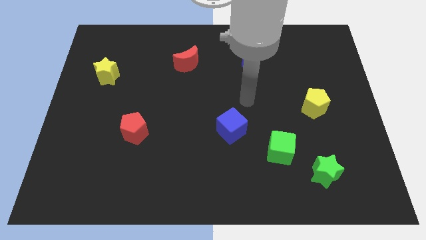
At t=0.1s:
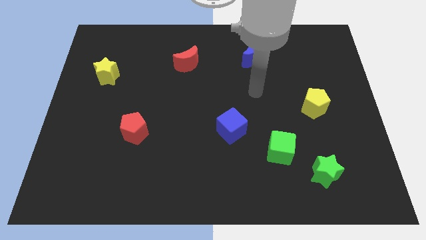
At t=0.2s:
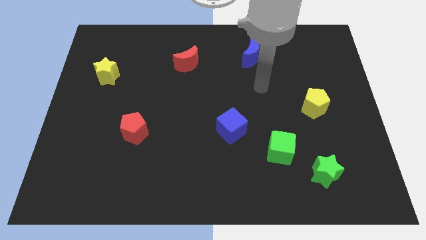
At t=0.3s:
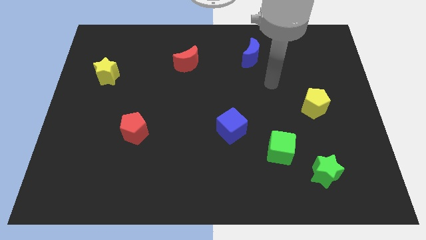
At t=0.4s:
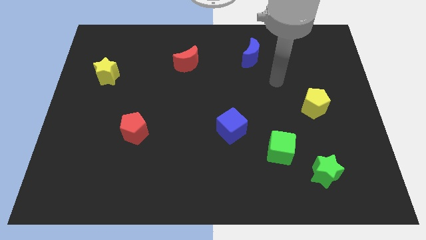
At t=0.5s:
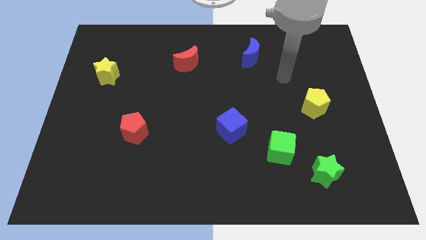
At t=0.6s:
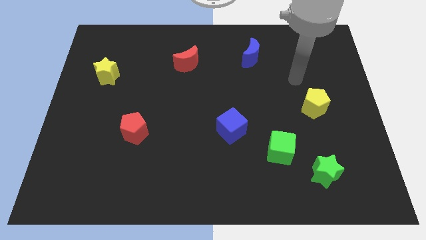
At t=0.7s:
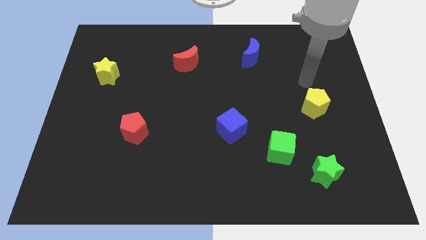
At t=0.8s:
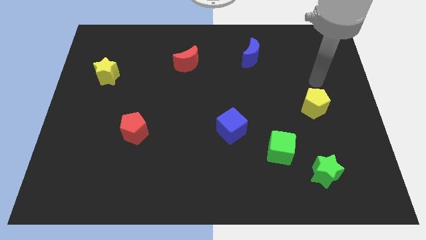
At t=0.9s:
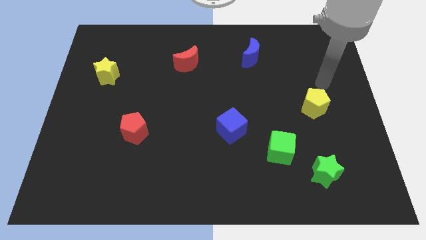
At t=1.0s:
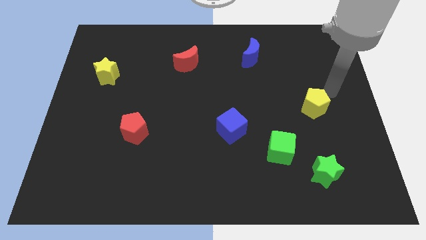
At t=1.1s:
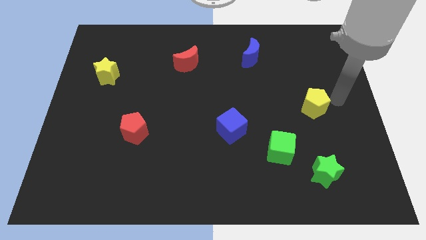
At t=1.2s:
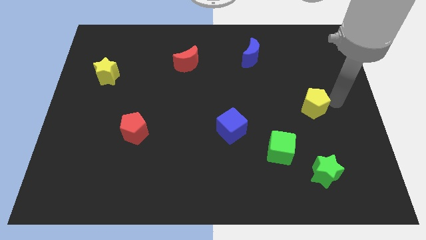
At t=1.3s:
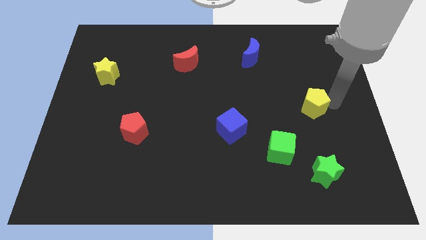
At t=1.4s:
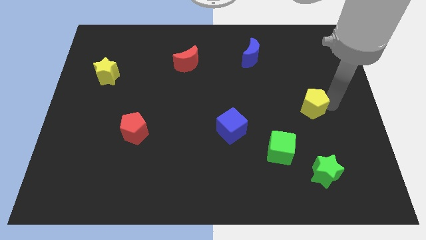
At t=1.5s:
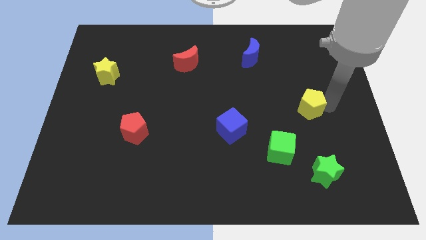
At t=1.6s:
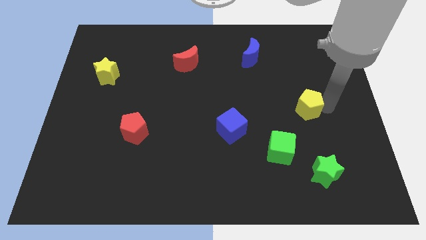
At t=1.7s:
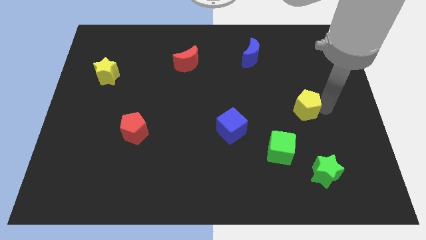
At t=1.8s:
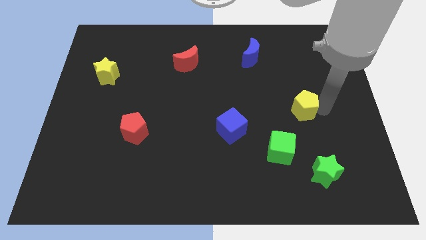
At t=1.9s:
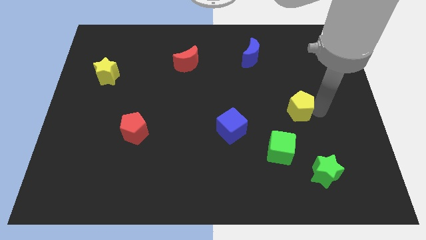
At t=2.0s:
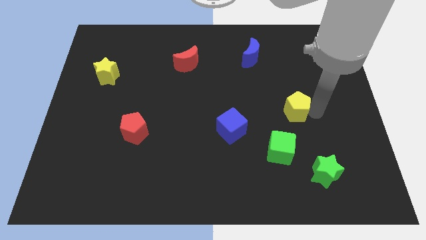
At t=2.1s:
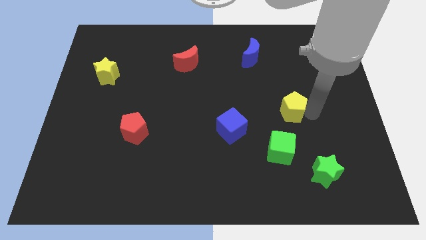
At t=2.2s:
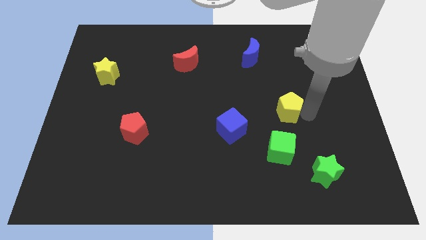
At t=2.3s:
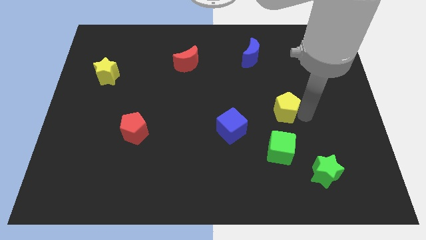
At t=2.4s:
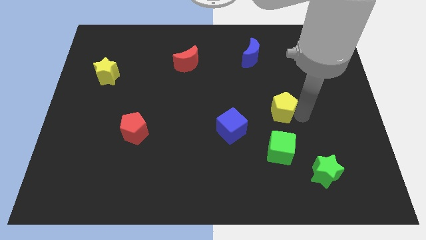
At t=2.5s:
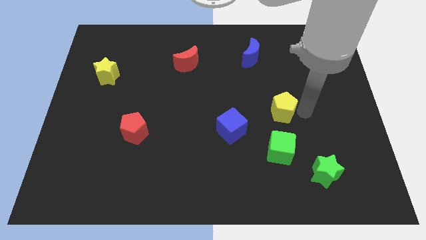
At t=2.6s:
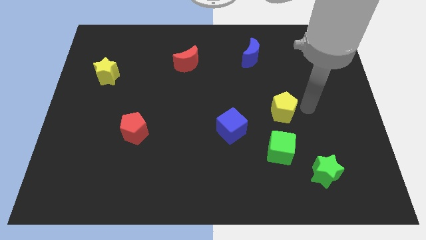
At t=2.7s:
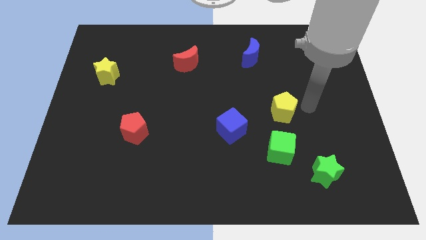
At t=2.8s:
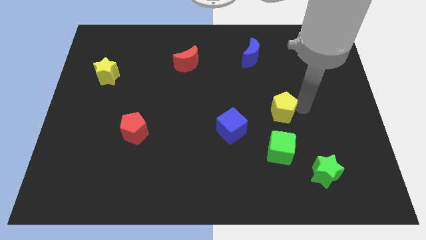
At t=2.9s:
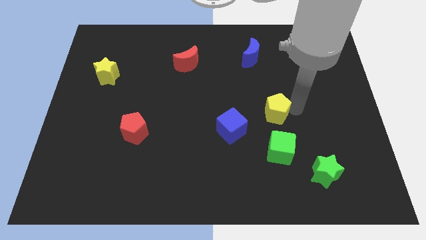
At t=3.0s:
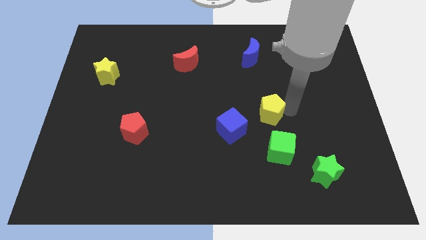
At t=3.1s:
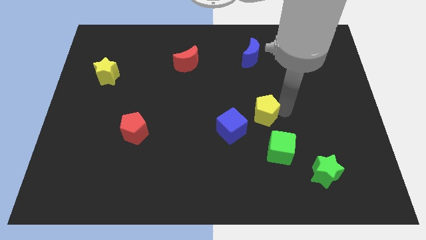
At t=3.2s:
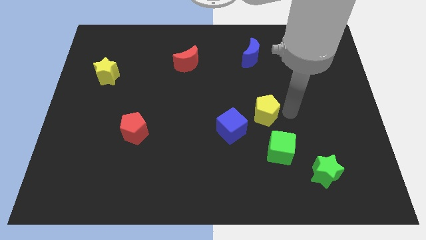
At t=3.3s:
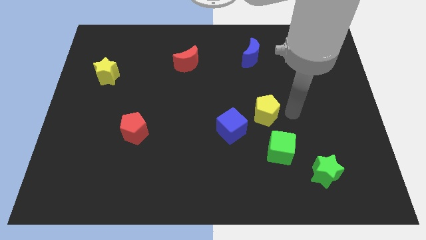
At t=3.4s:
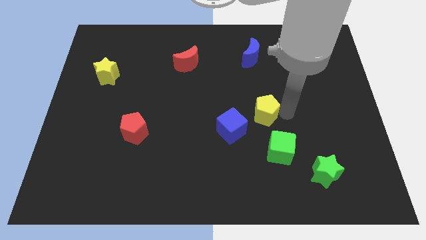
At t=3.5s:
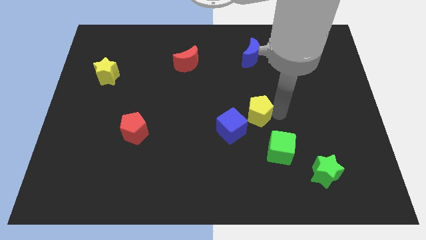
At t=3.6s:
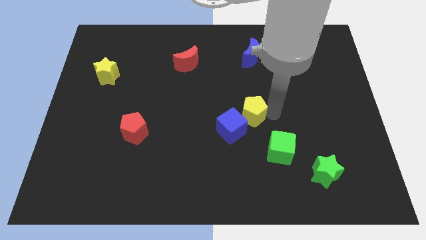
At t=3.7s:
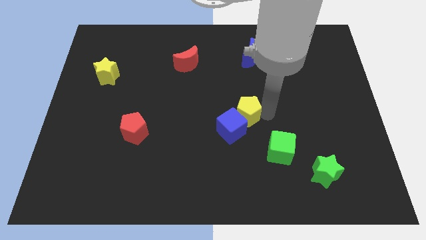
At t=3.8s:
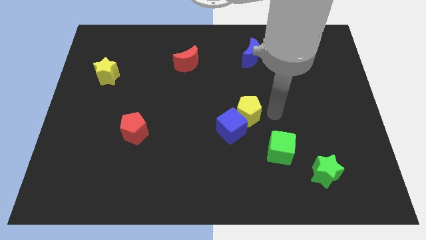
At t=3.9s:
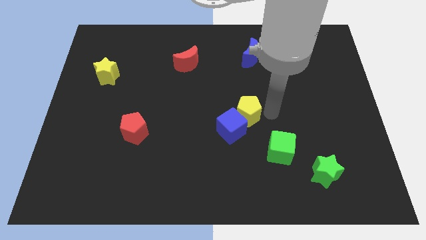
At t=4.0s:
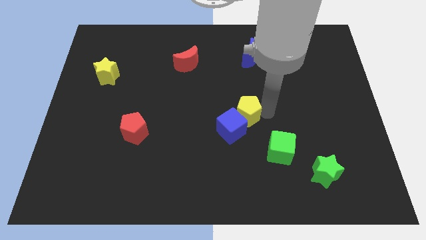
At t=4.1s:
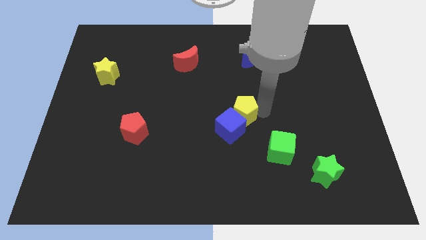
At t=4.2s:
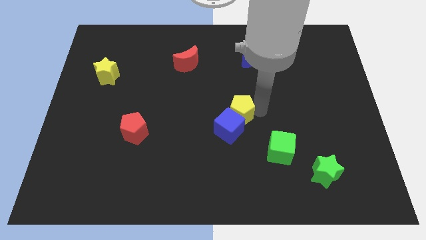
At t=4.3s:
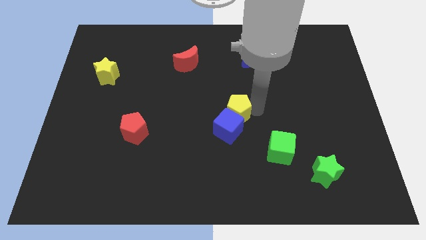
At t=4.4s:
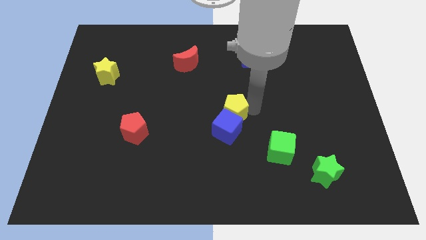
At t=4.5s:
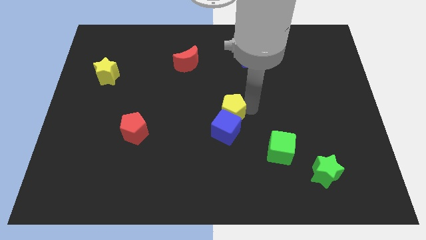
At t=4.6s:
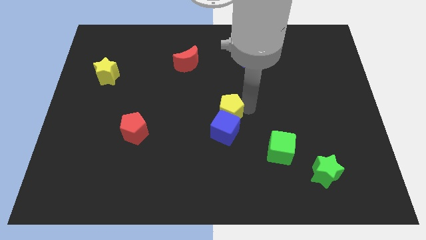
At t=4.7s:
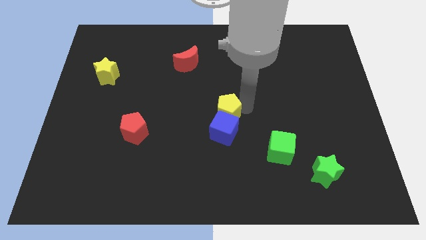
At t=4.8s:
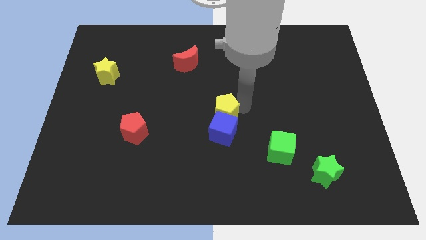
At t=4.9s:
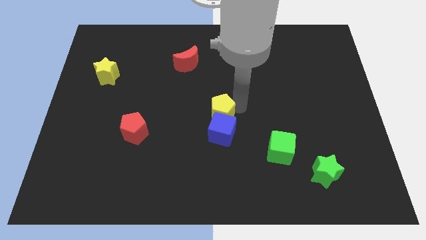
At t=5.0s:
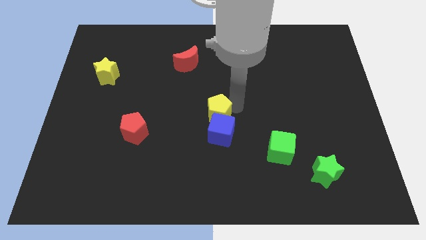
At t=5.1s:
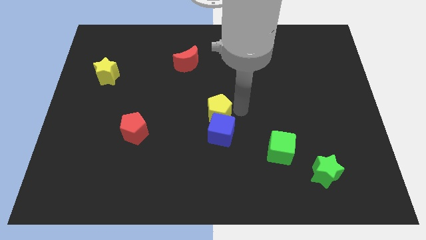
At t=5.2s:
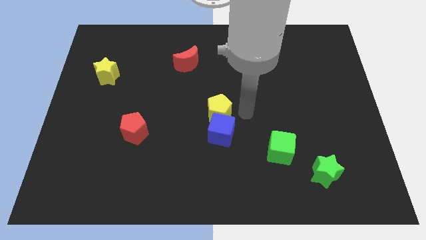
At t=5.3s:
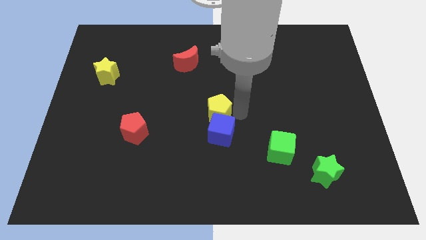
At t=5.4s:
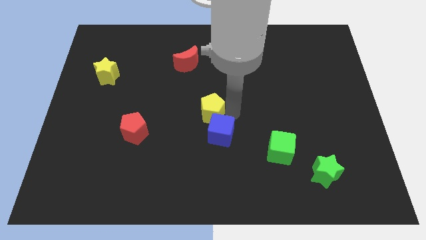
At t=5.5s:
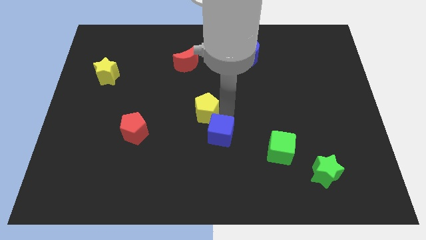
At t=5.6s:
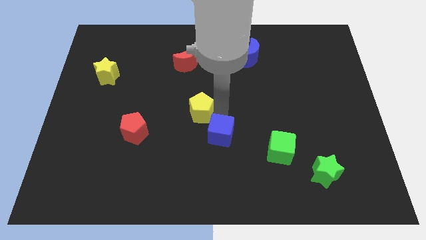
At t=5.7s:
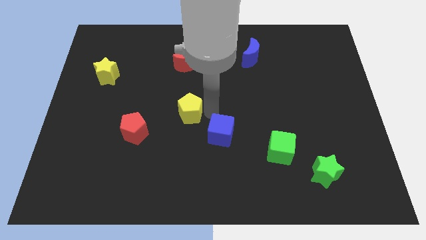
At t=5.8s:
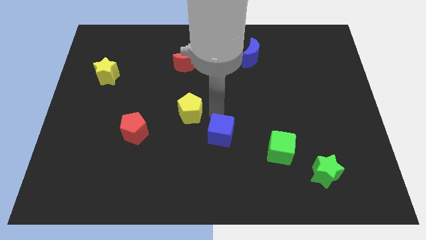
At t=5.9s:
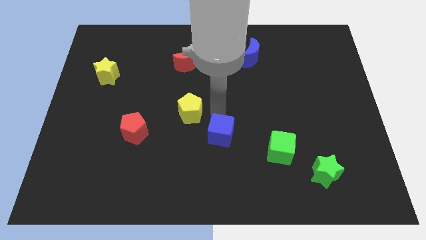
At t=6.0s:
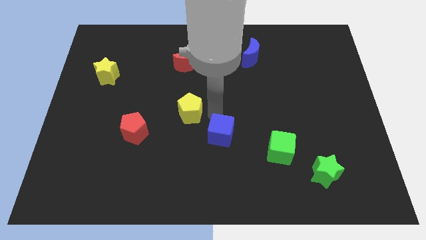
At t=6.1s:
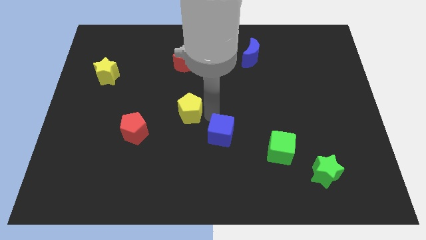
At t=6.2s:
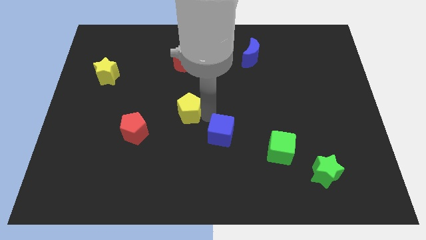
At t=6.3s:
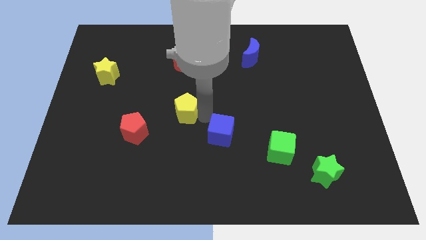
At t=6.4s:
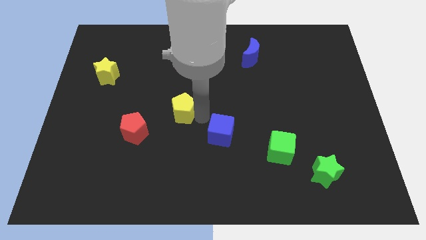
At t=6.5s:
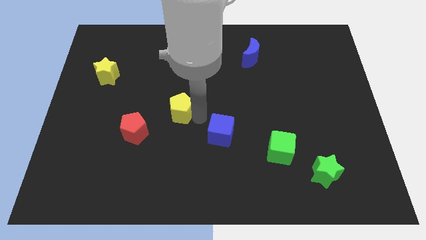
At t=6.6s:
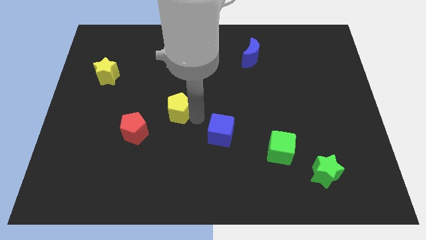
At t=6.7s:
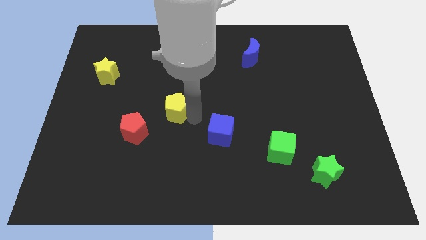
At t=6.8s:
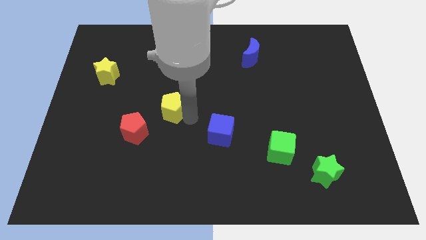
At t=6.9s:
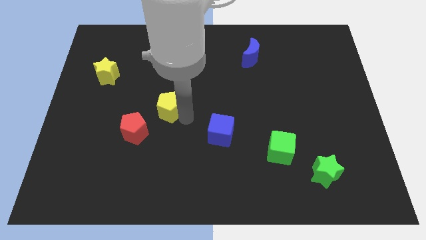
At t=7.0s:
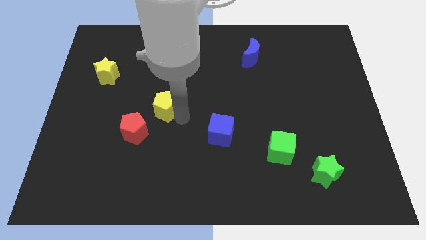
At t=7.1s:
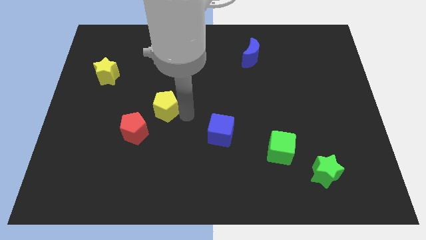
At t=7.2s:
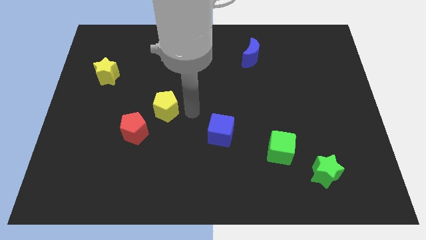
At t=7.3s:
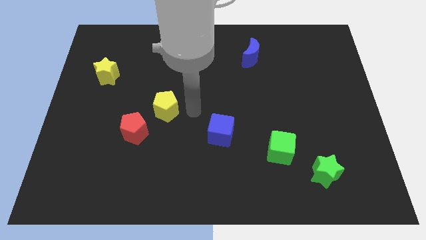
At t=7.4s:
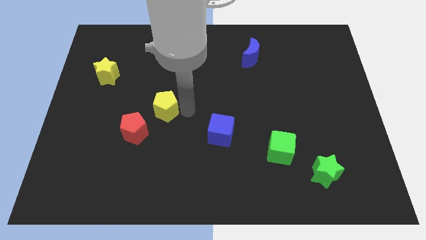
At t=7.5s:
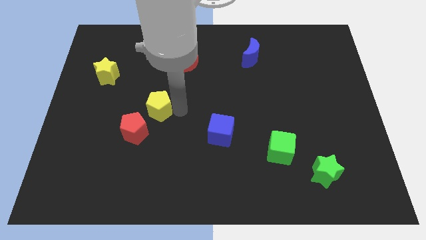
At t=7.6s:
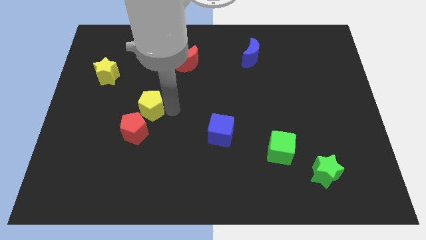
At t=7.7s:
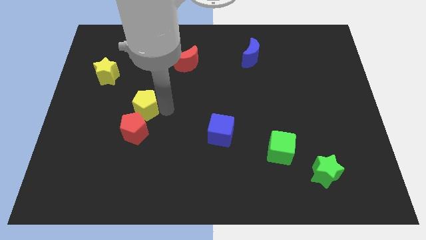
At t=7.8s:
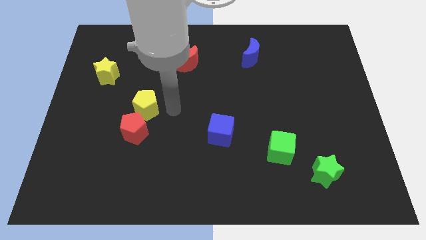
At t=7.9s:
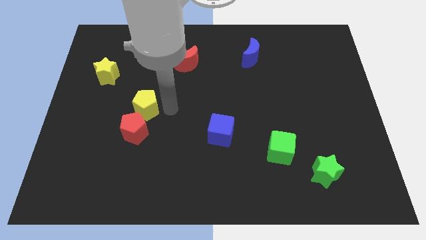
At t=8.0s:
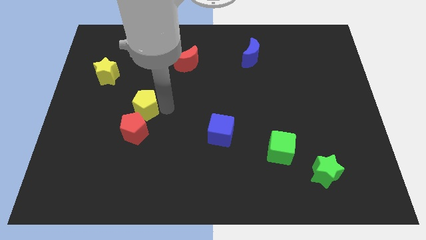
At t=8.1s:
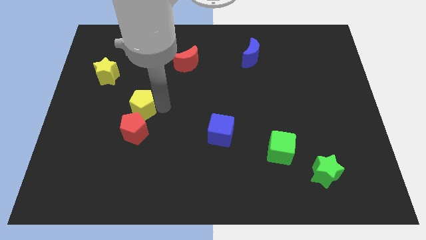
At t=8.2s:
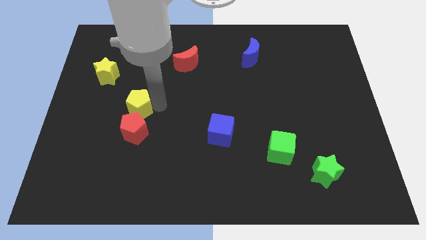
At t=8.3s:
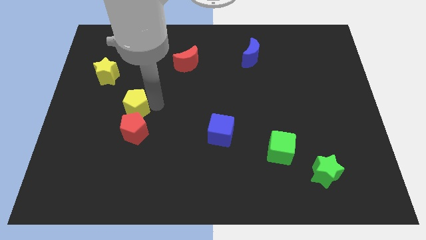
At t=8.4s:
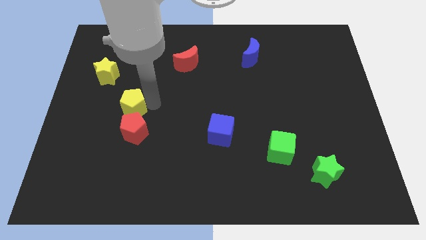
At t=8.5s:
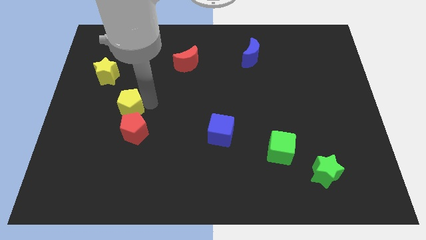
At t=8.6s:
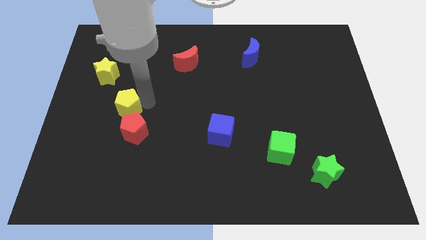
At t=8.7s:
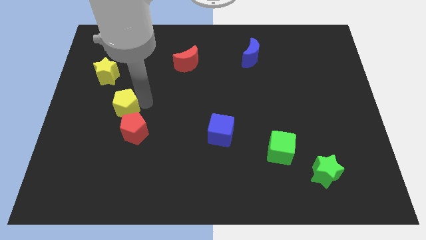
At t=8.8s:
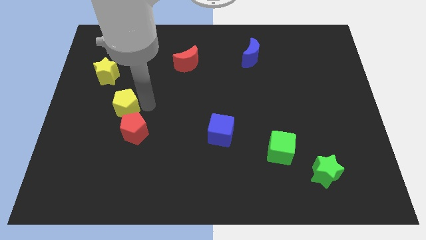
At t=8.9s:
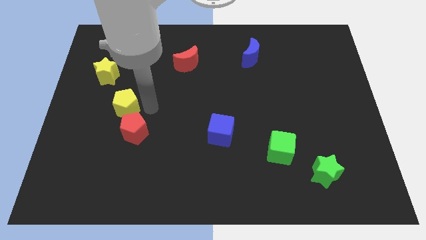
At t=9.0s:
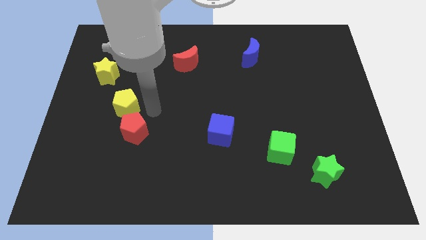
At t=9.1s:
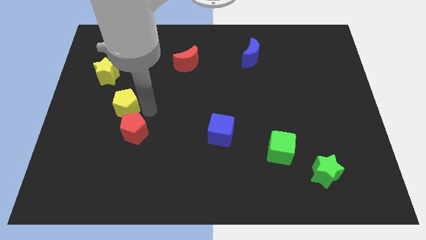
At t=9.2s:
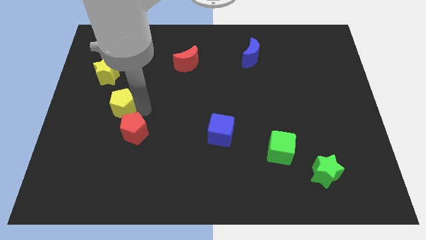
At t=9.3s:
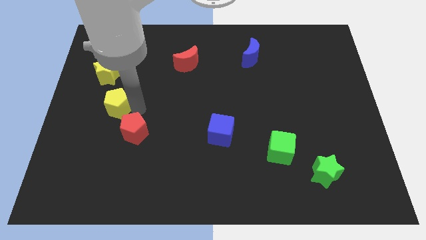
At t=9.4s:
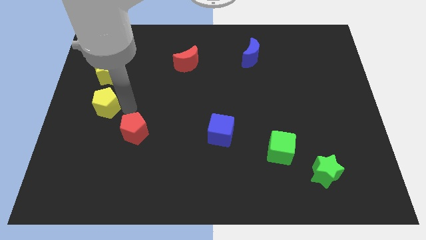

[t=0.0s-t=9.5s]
slide the yellow pentagon to the center left
